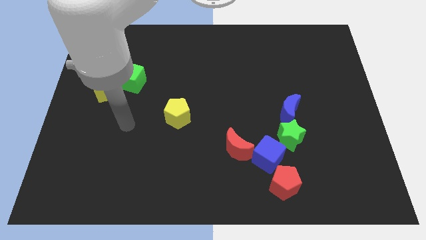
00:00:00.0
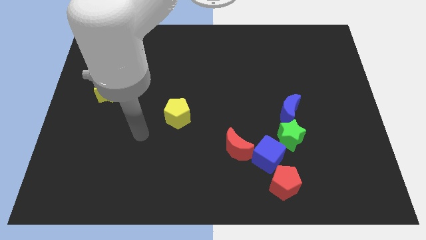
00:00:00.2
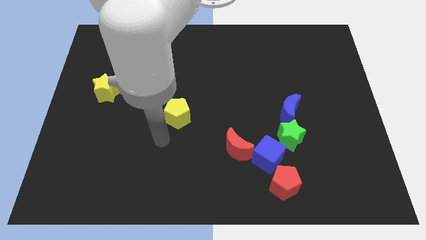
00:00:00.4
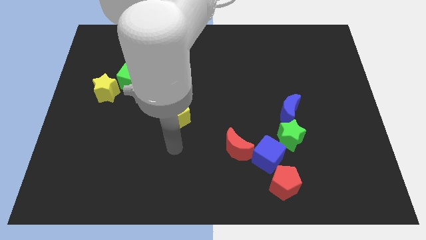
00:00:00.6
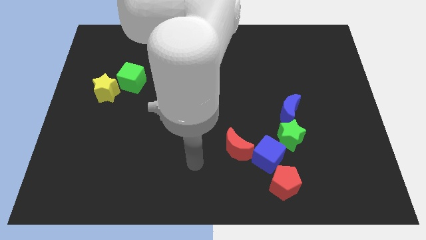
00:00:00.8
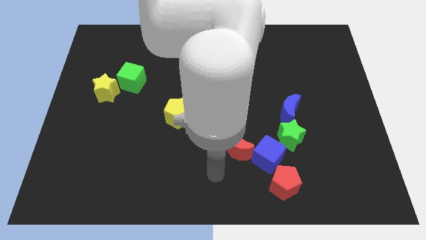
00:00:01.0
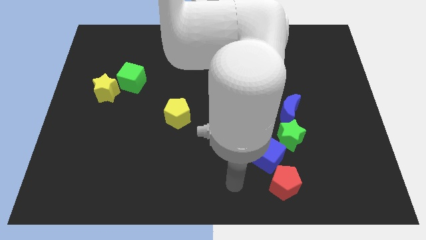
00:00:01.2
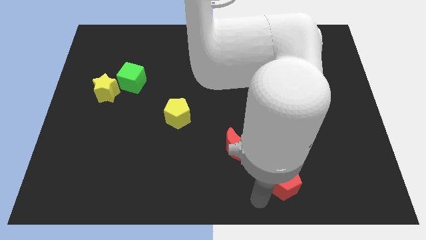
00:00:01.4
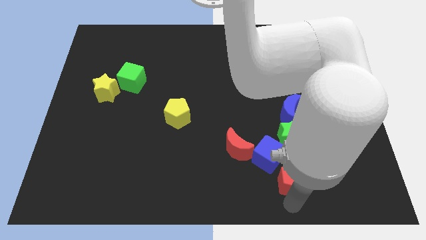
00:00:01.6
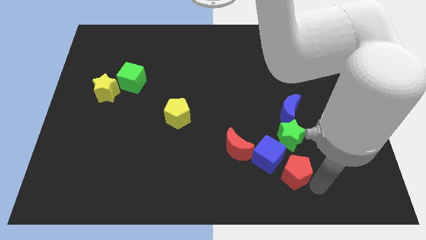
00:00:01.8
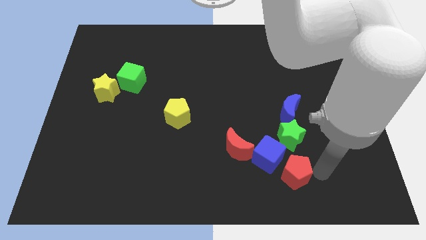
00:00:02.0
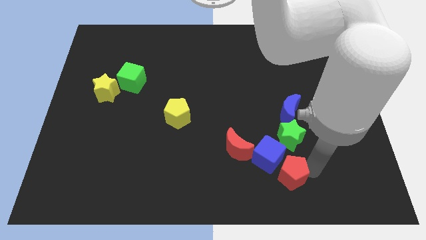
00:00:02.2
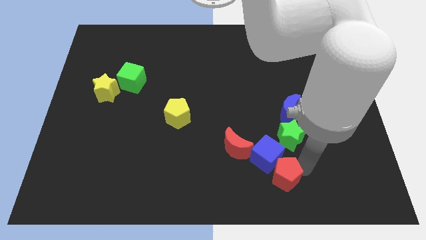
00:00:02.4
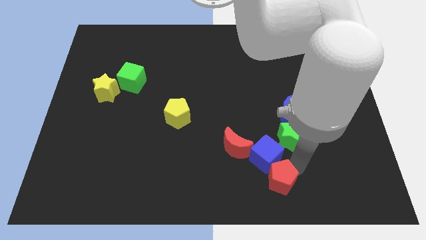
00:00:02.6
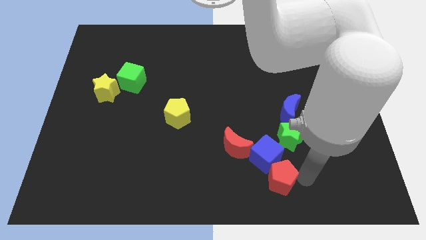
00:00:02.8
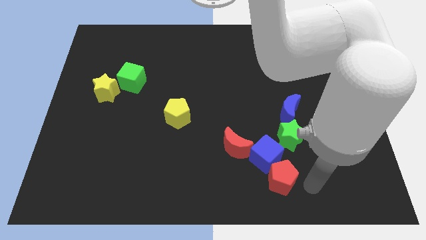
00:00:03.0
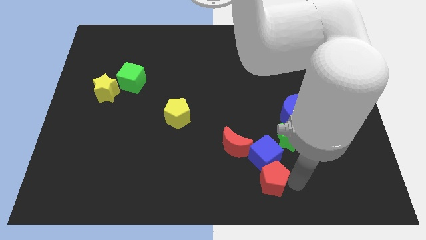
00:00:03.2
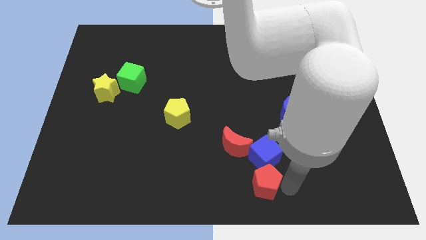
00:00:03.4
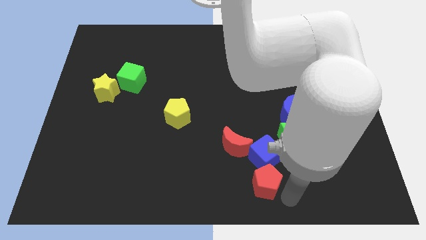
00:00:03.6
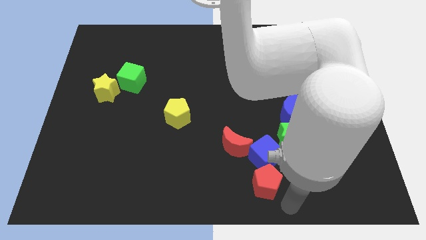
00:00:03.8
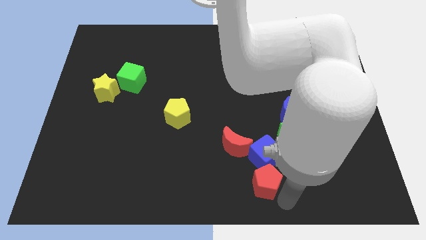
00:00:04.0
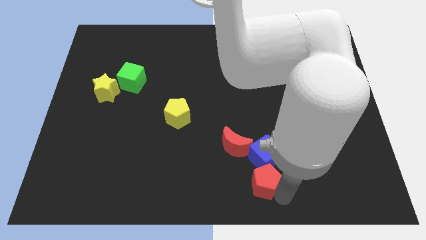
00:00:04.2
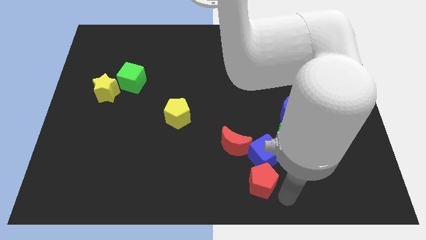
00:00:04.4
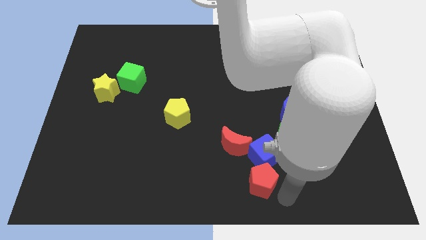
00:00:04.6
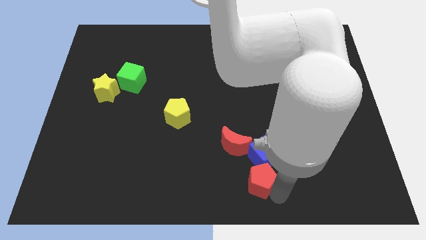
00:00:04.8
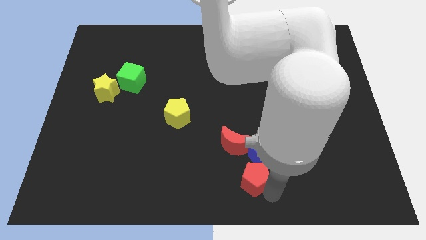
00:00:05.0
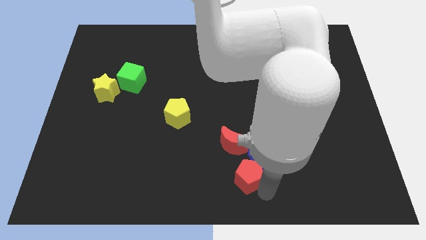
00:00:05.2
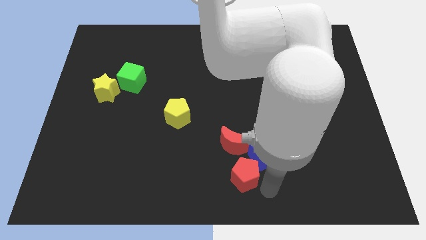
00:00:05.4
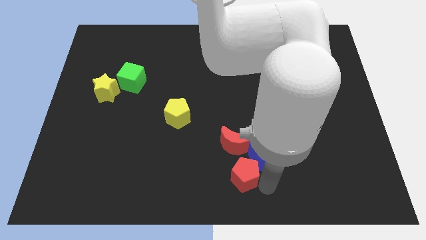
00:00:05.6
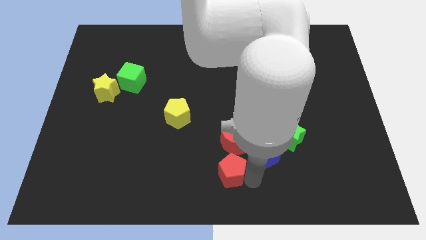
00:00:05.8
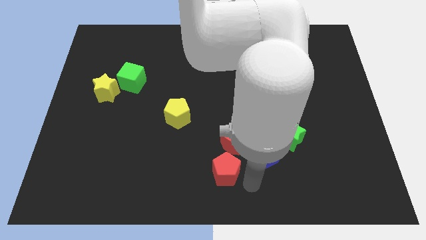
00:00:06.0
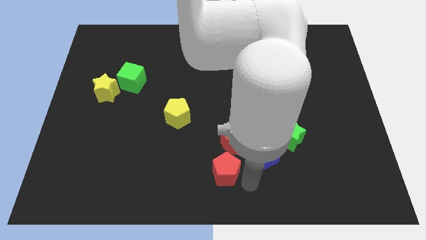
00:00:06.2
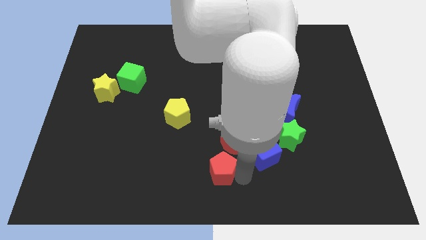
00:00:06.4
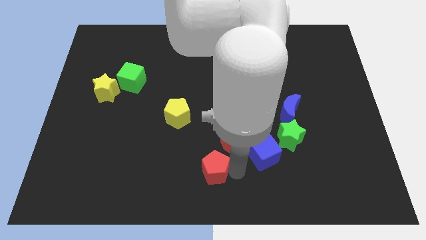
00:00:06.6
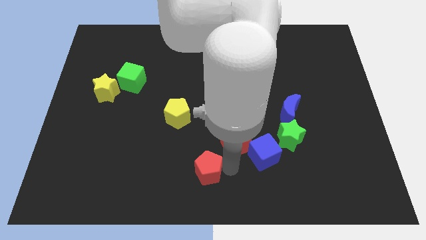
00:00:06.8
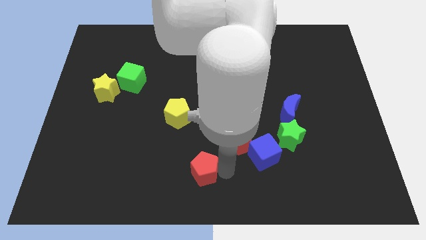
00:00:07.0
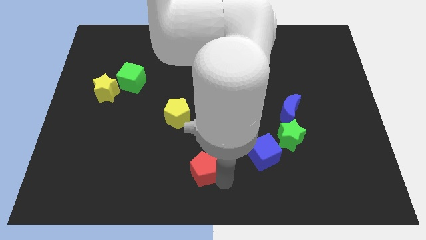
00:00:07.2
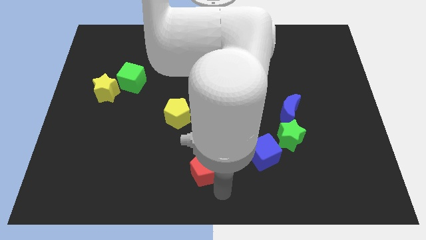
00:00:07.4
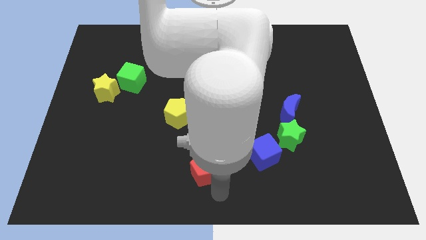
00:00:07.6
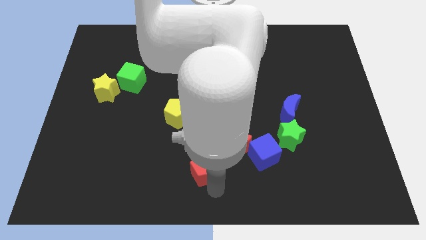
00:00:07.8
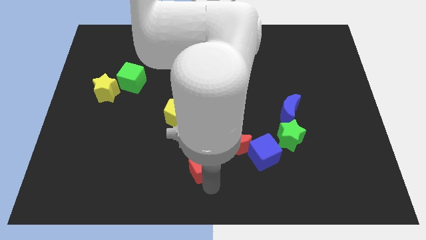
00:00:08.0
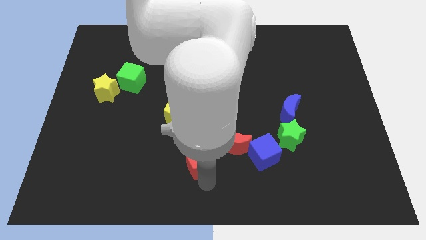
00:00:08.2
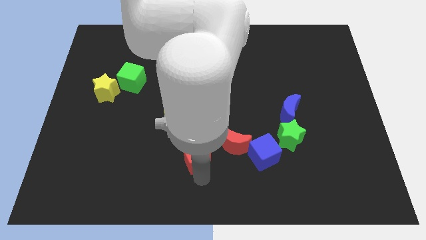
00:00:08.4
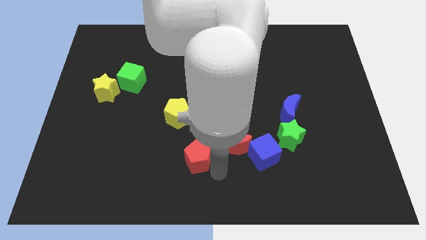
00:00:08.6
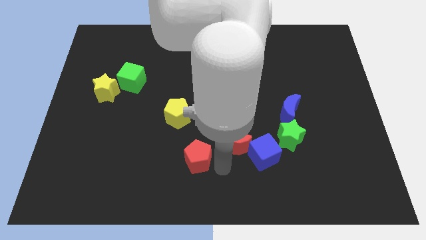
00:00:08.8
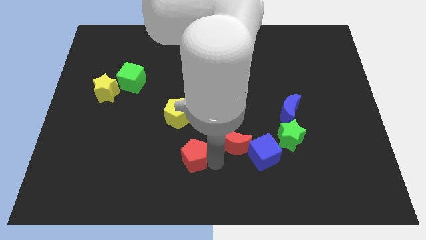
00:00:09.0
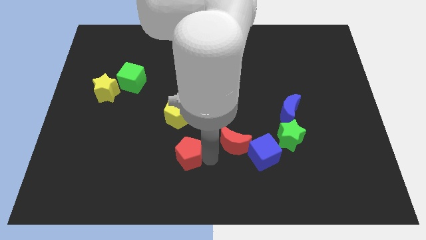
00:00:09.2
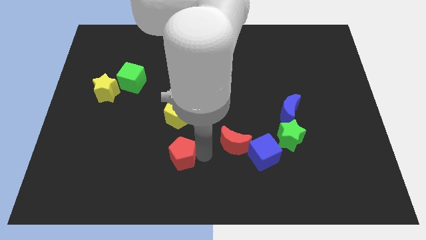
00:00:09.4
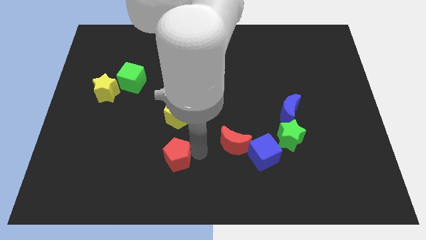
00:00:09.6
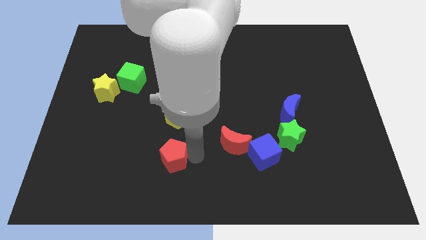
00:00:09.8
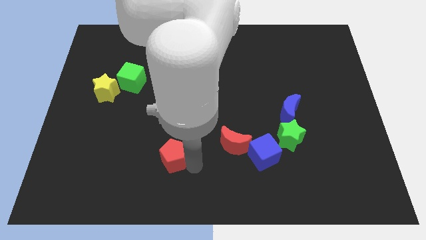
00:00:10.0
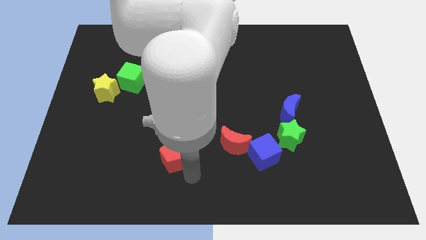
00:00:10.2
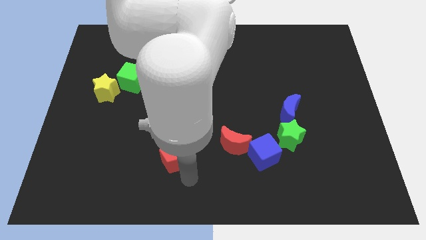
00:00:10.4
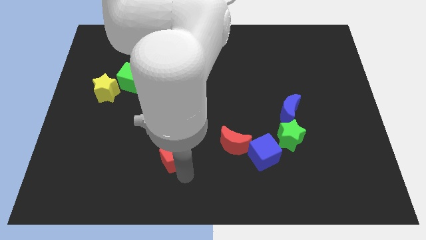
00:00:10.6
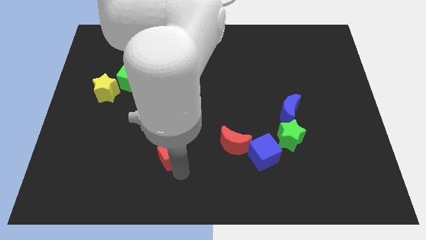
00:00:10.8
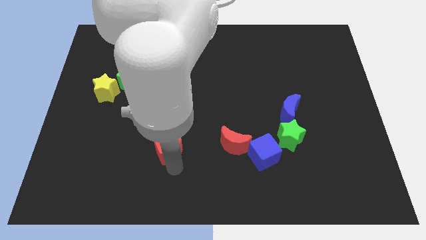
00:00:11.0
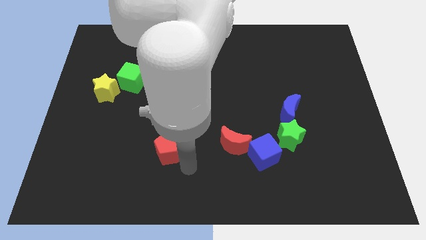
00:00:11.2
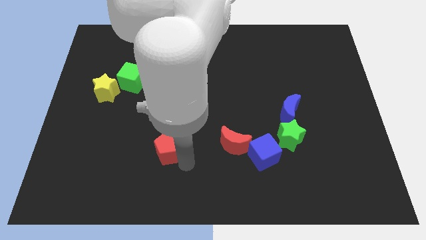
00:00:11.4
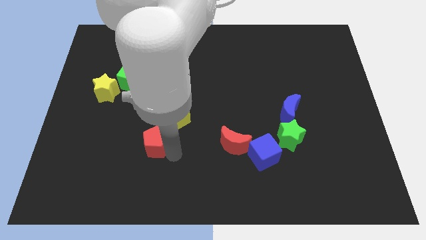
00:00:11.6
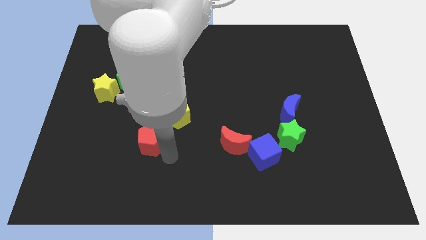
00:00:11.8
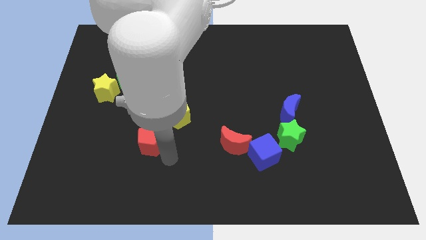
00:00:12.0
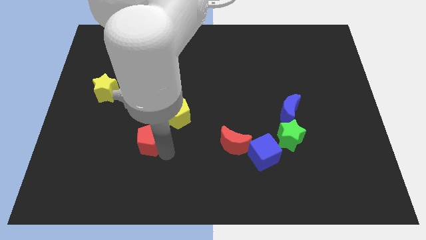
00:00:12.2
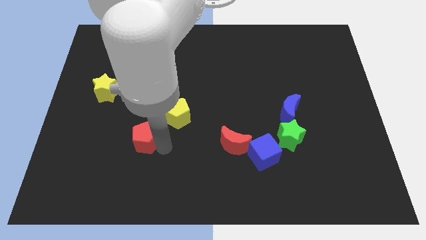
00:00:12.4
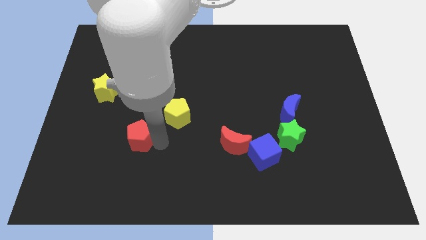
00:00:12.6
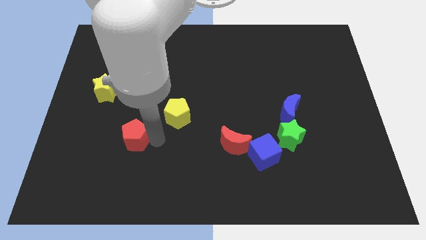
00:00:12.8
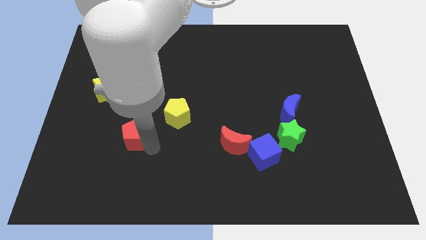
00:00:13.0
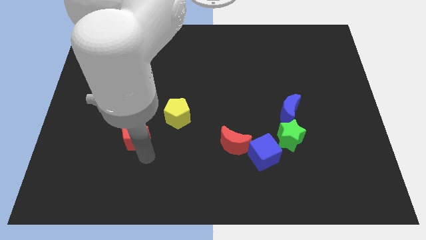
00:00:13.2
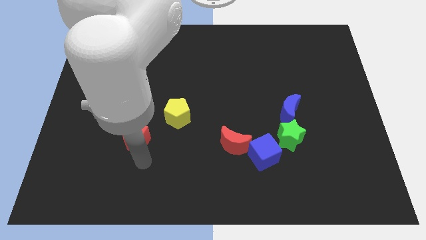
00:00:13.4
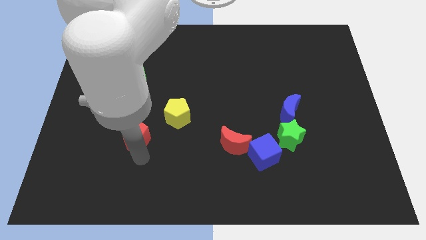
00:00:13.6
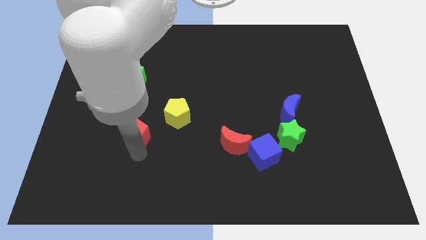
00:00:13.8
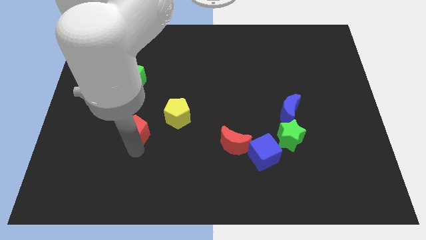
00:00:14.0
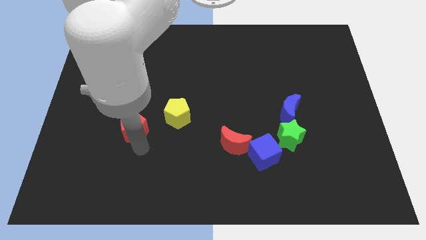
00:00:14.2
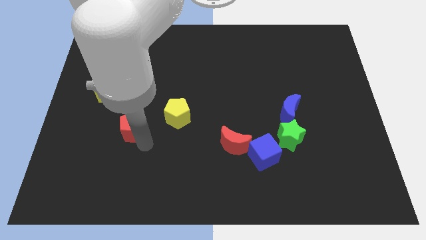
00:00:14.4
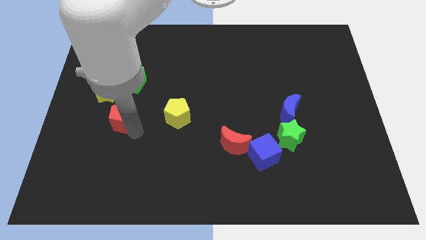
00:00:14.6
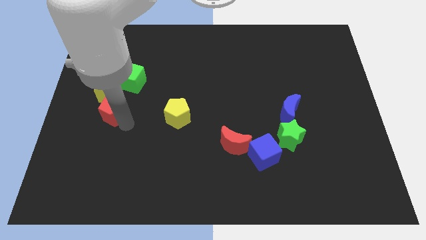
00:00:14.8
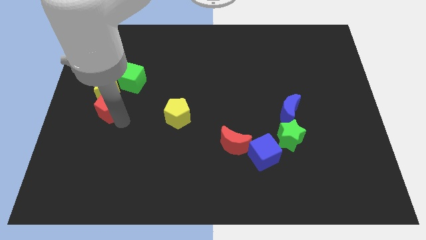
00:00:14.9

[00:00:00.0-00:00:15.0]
move the red pentagon towards the yellow star
